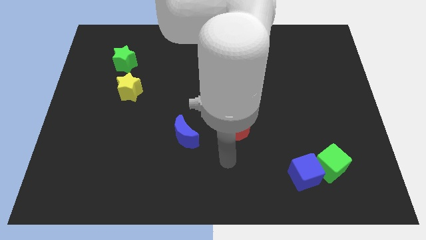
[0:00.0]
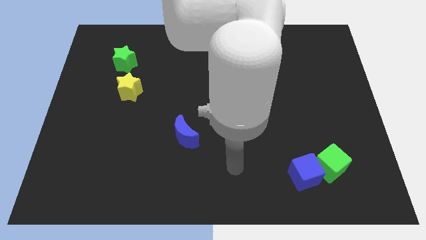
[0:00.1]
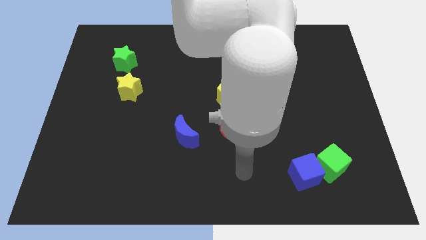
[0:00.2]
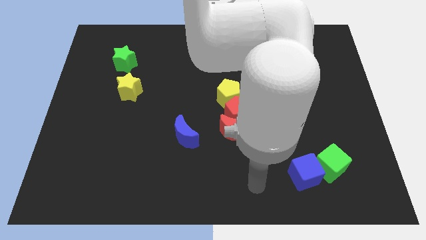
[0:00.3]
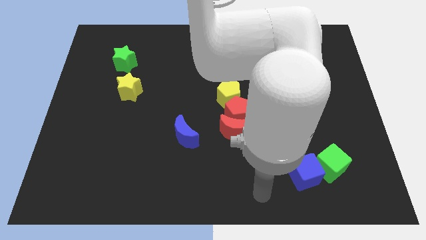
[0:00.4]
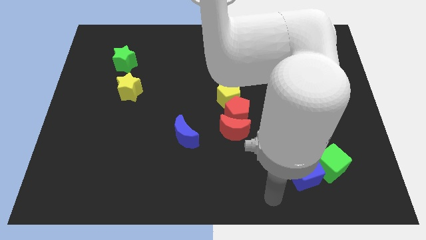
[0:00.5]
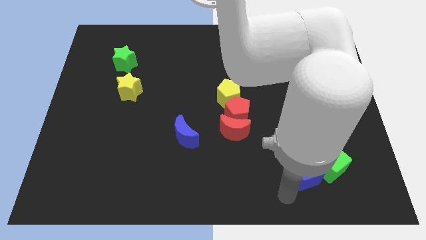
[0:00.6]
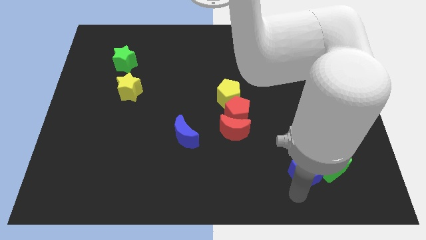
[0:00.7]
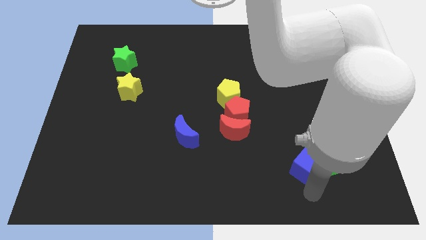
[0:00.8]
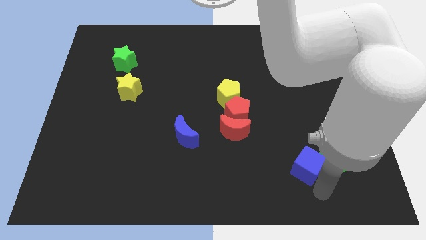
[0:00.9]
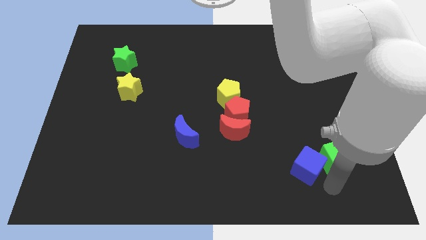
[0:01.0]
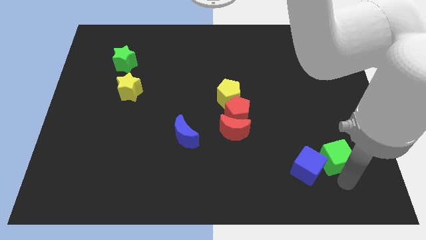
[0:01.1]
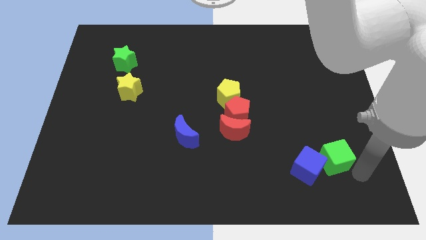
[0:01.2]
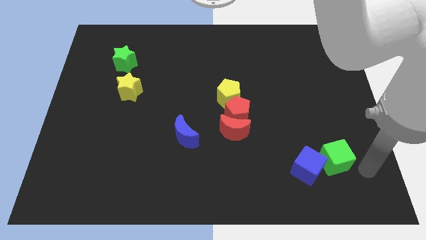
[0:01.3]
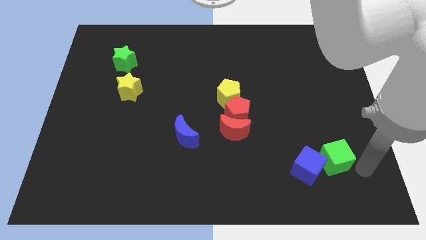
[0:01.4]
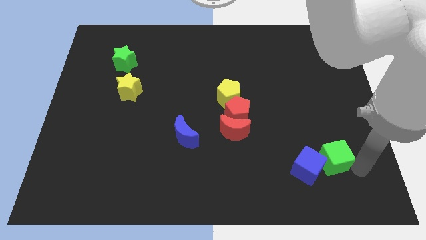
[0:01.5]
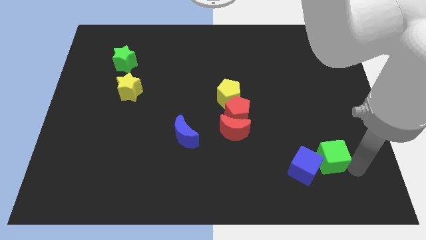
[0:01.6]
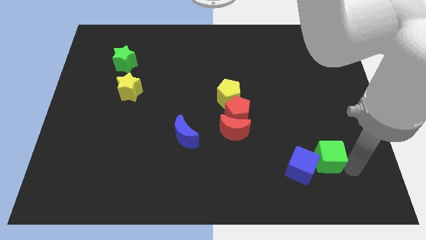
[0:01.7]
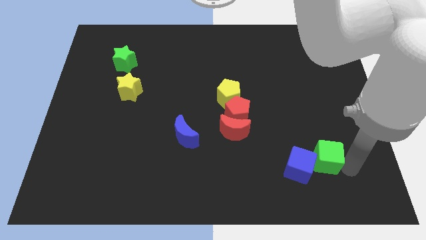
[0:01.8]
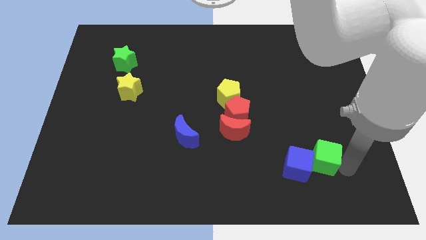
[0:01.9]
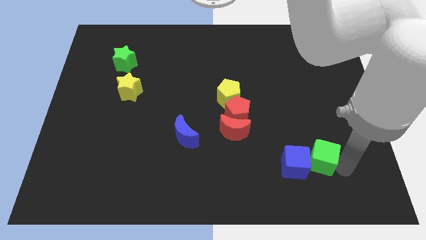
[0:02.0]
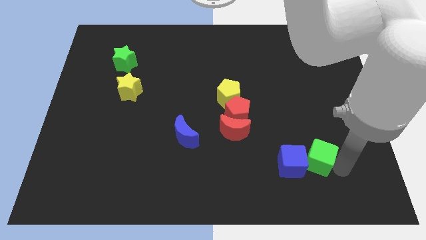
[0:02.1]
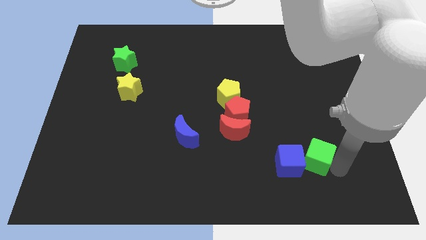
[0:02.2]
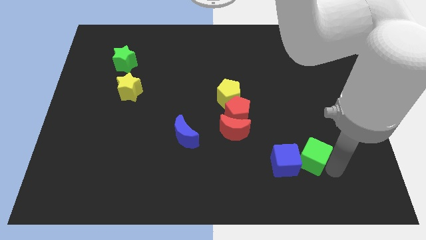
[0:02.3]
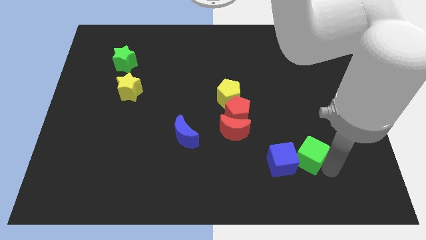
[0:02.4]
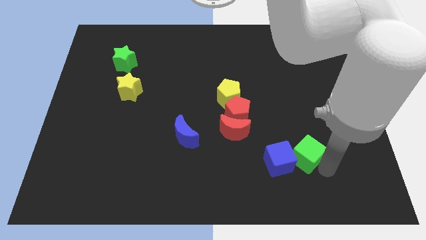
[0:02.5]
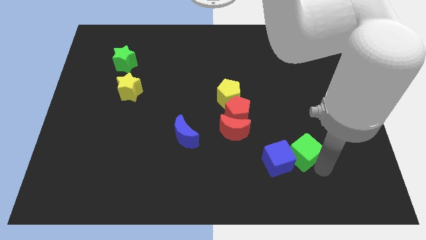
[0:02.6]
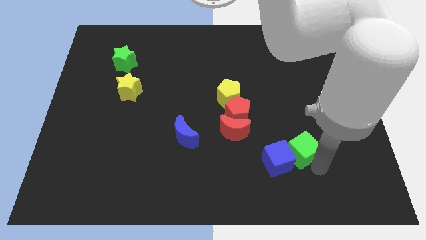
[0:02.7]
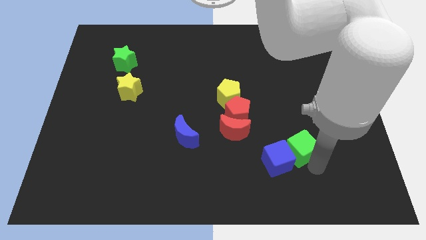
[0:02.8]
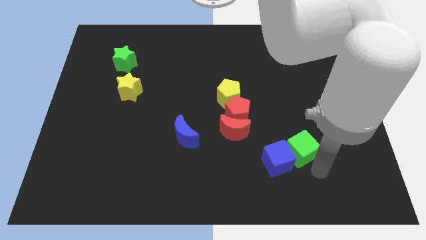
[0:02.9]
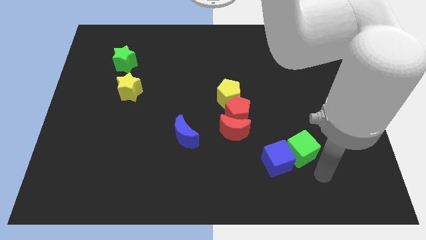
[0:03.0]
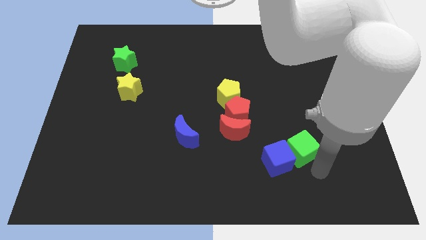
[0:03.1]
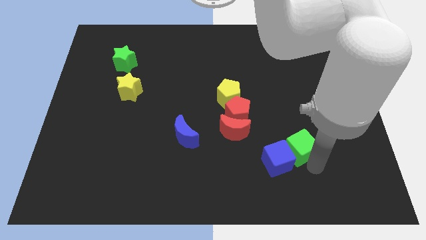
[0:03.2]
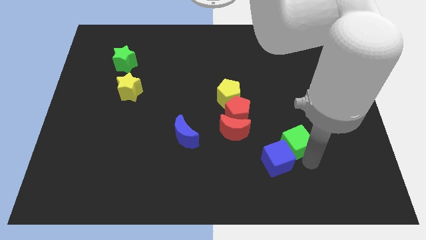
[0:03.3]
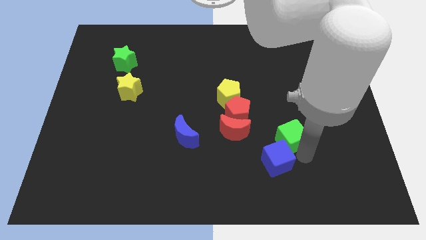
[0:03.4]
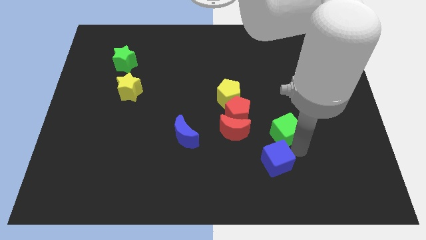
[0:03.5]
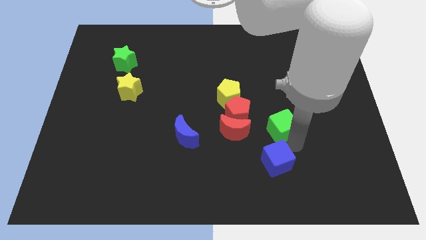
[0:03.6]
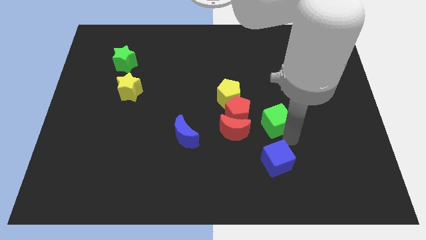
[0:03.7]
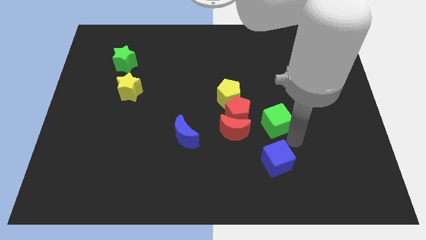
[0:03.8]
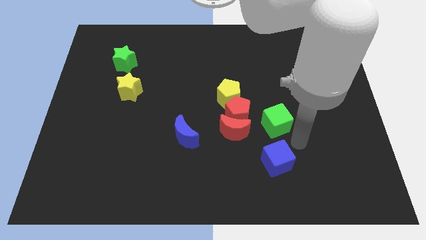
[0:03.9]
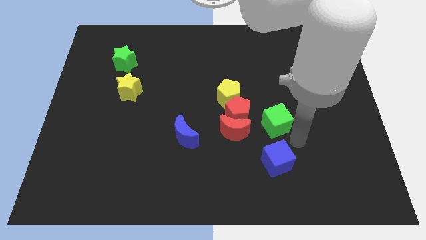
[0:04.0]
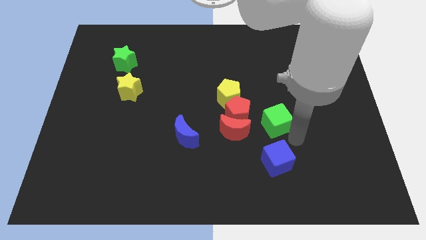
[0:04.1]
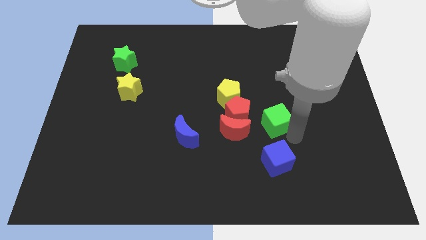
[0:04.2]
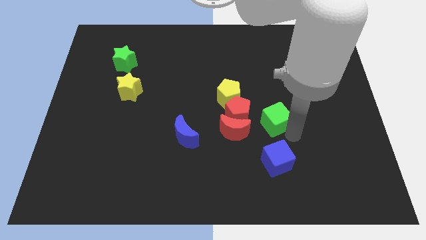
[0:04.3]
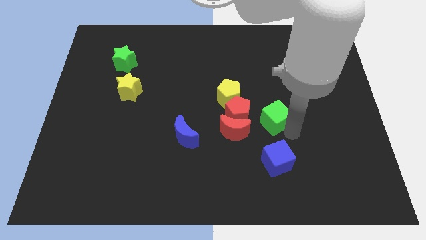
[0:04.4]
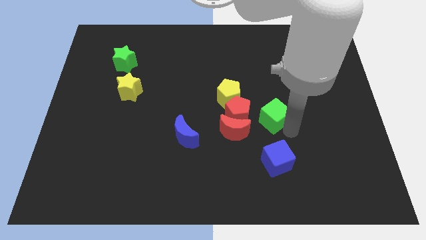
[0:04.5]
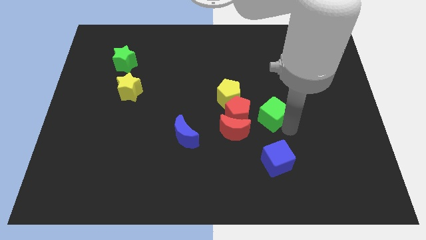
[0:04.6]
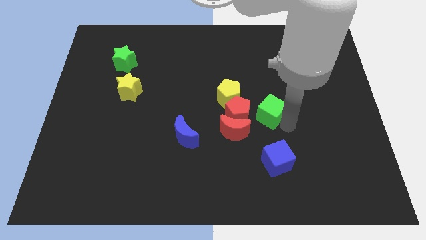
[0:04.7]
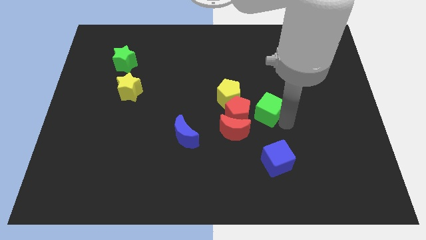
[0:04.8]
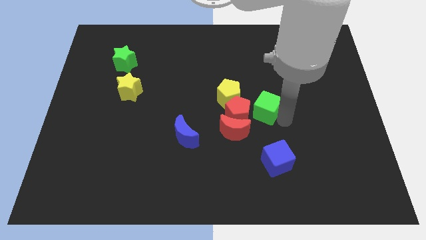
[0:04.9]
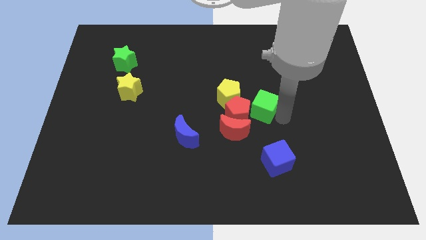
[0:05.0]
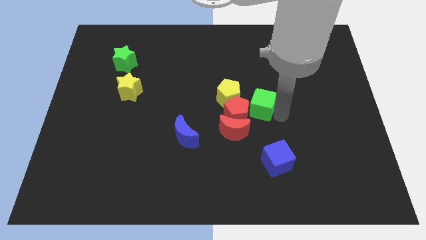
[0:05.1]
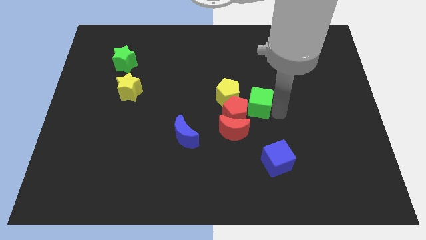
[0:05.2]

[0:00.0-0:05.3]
slide the green cube towards the red pentagon

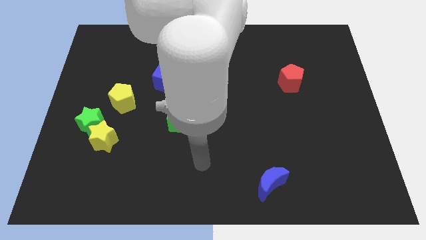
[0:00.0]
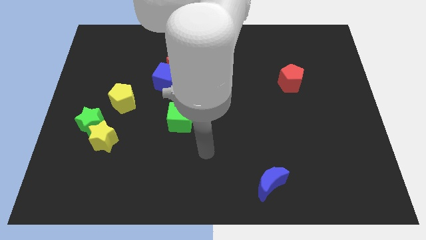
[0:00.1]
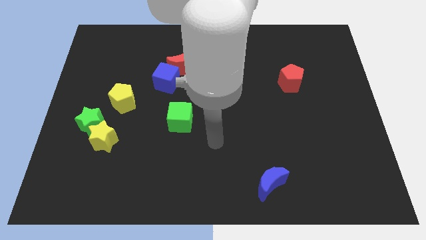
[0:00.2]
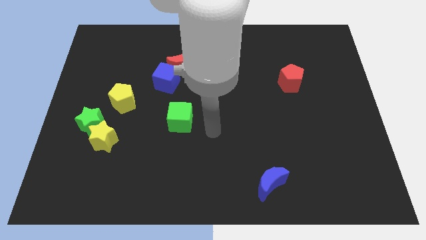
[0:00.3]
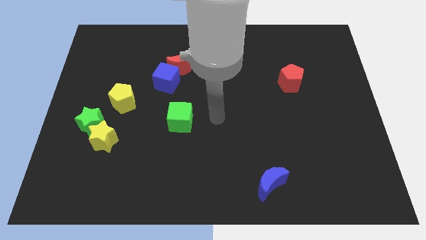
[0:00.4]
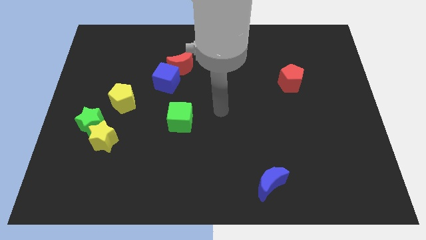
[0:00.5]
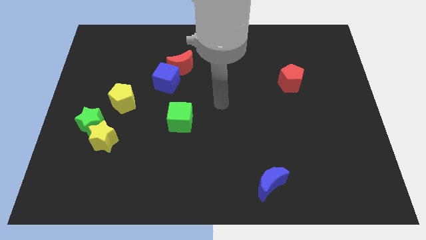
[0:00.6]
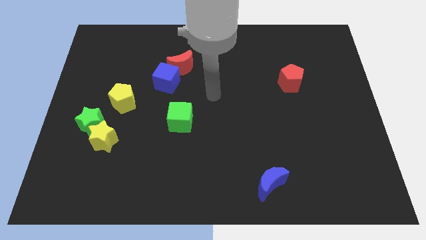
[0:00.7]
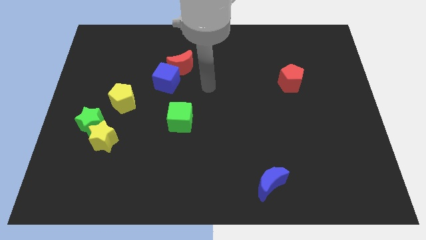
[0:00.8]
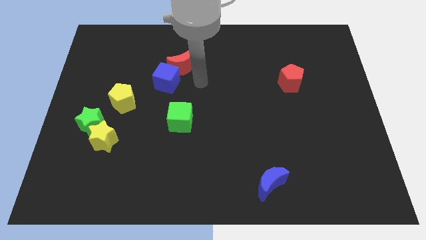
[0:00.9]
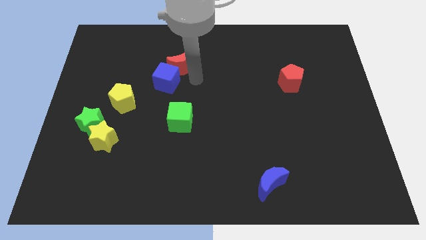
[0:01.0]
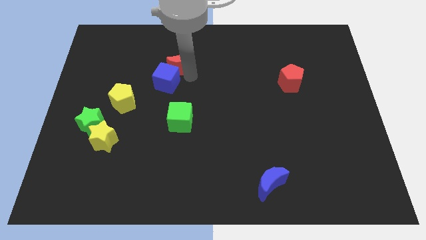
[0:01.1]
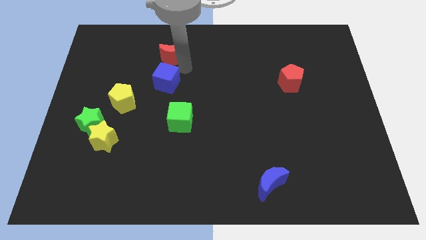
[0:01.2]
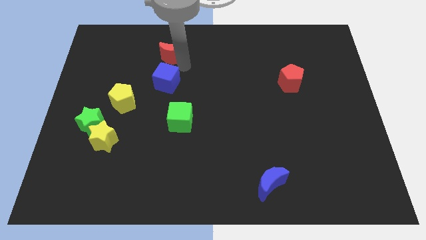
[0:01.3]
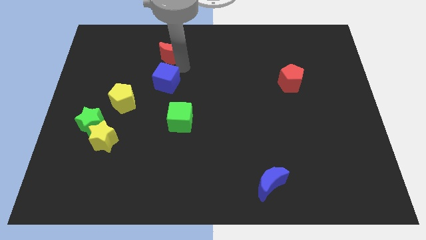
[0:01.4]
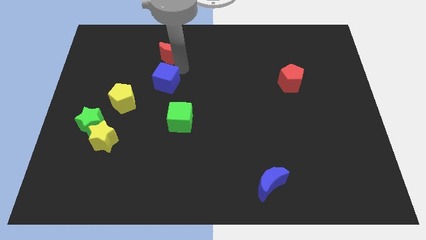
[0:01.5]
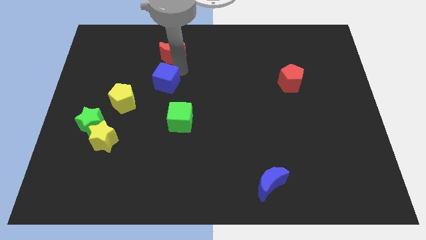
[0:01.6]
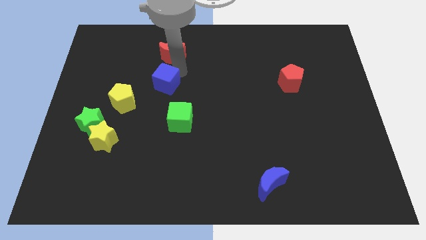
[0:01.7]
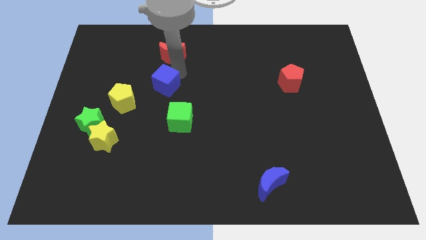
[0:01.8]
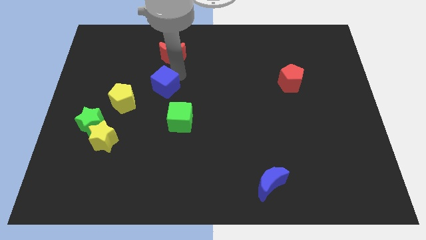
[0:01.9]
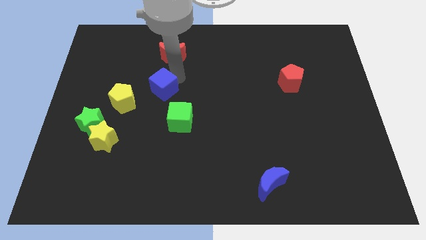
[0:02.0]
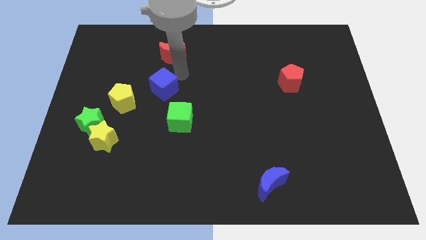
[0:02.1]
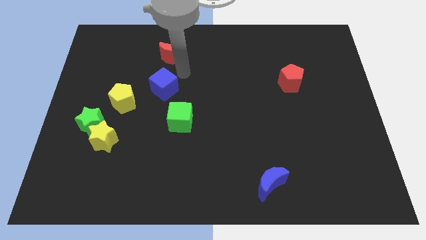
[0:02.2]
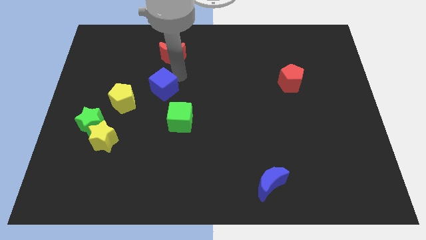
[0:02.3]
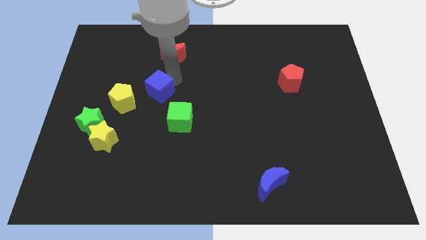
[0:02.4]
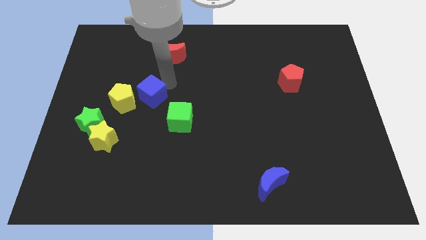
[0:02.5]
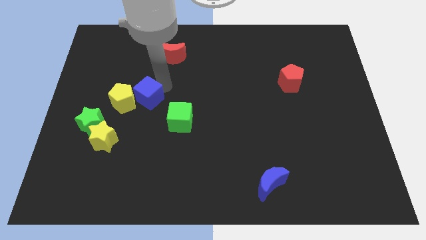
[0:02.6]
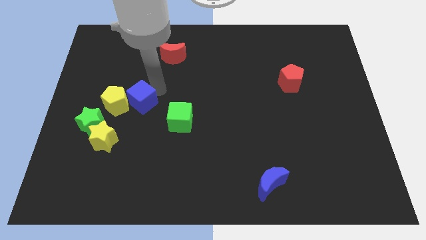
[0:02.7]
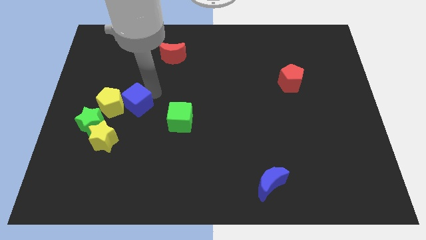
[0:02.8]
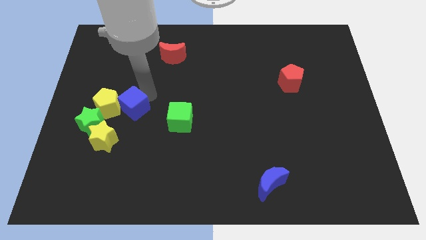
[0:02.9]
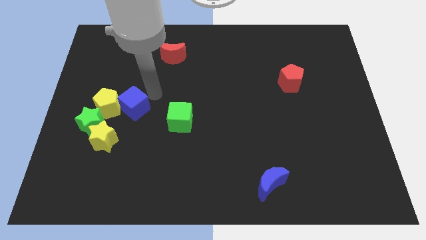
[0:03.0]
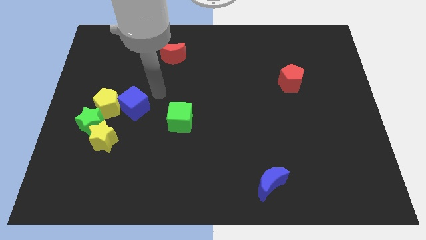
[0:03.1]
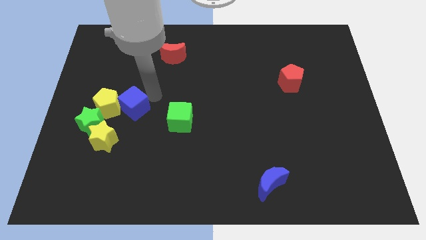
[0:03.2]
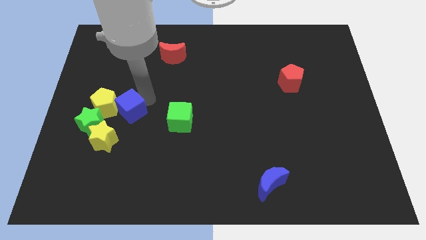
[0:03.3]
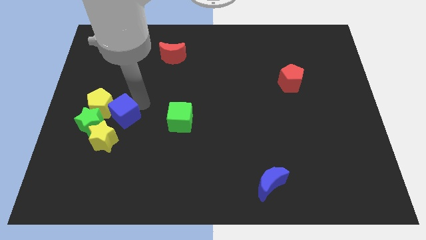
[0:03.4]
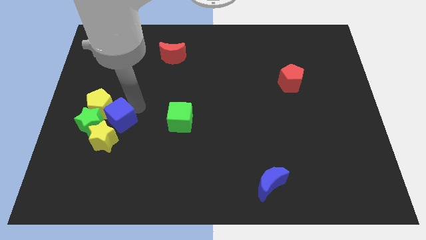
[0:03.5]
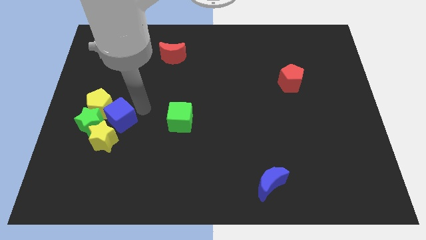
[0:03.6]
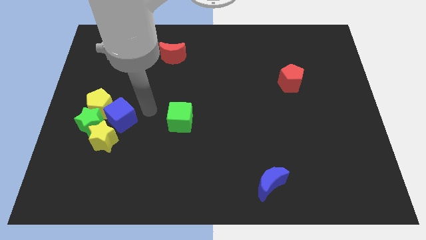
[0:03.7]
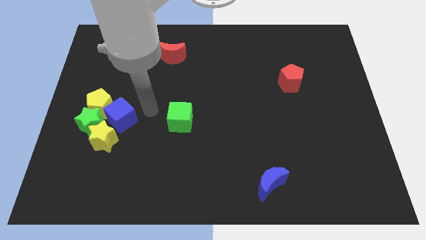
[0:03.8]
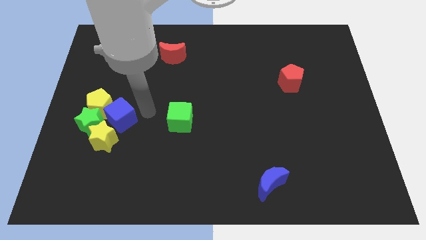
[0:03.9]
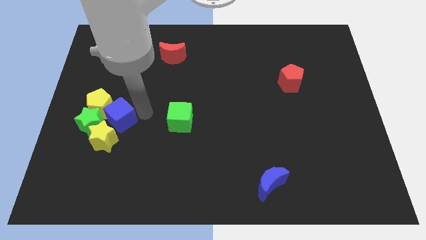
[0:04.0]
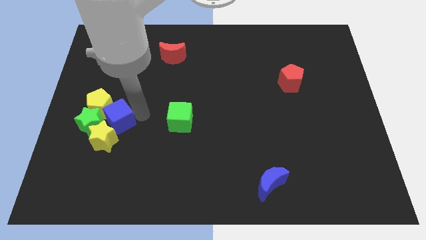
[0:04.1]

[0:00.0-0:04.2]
slide the blue cube next to the green star
